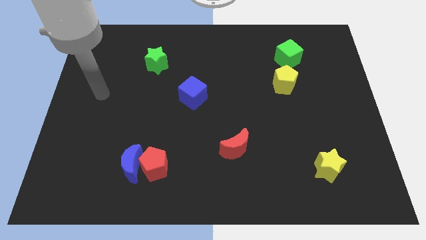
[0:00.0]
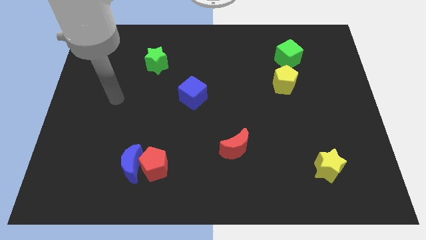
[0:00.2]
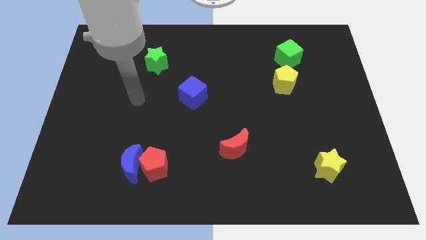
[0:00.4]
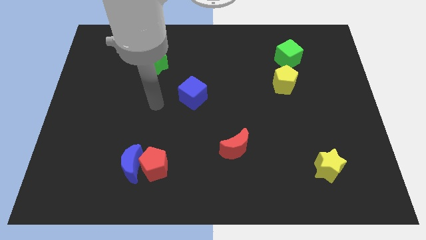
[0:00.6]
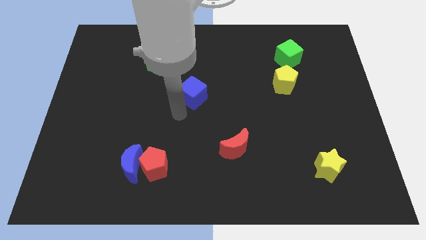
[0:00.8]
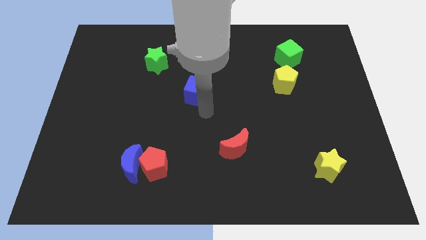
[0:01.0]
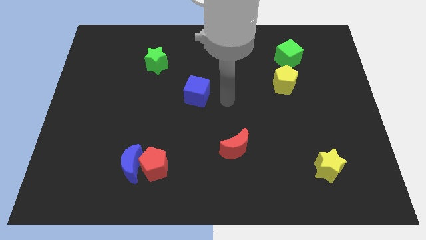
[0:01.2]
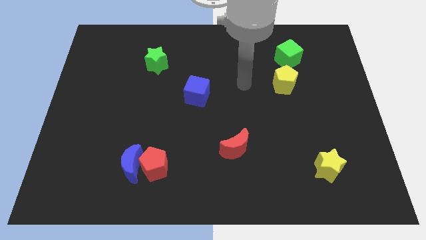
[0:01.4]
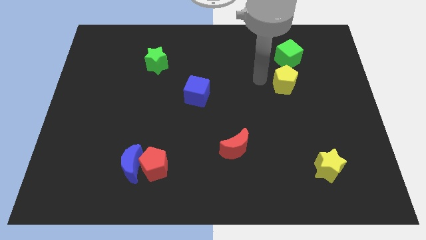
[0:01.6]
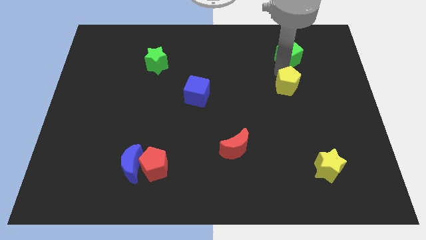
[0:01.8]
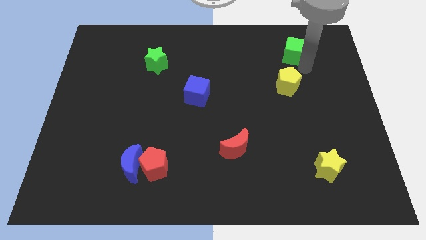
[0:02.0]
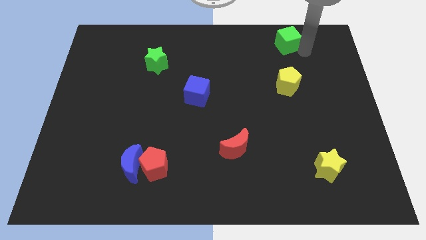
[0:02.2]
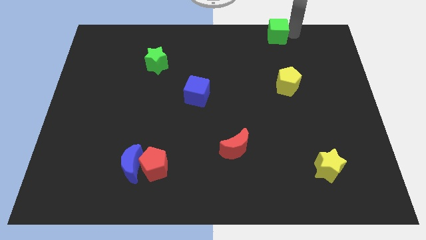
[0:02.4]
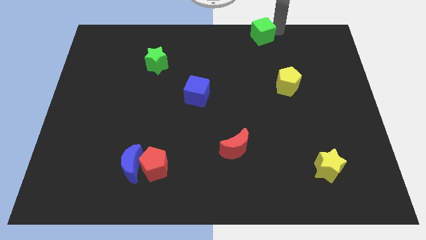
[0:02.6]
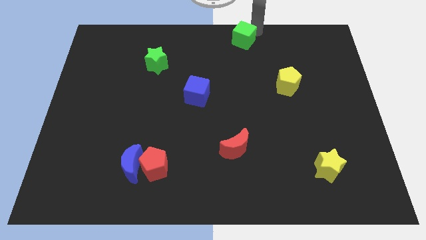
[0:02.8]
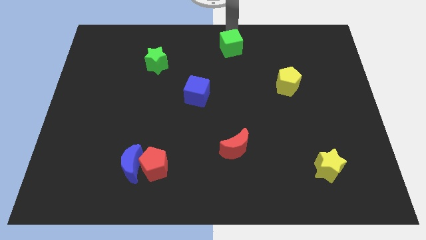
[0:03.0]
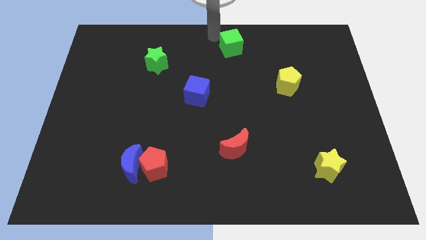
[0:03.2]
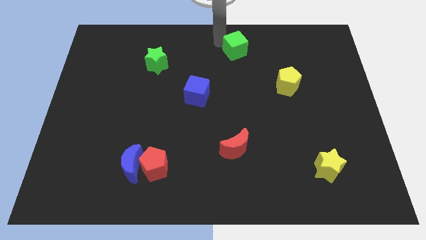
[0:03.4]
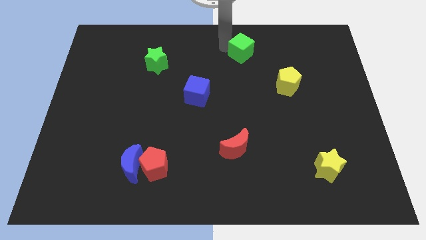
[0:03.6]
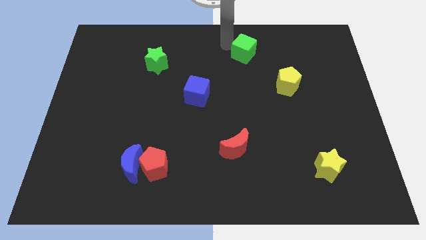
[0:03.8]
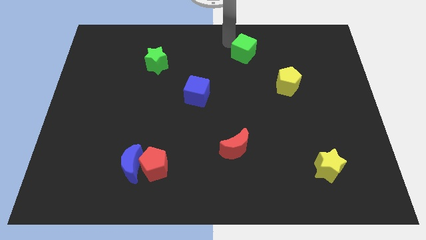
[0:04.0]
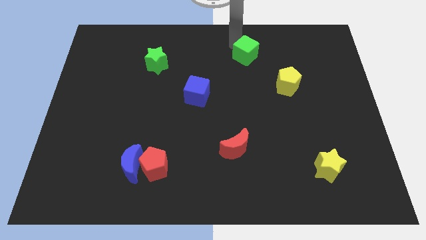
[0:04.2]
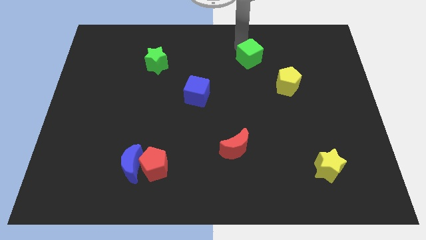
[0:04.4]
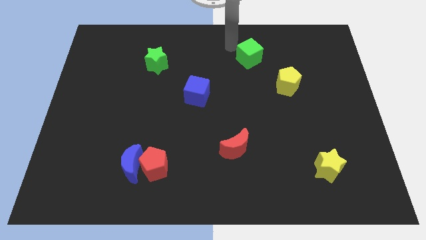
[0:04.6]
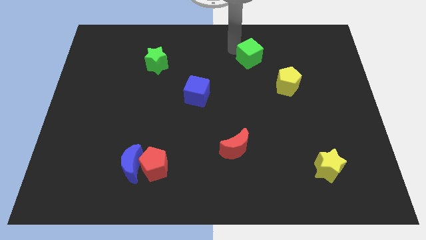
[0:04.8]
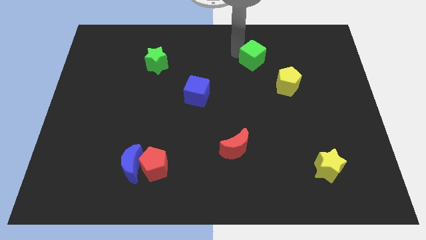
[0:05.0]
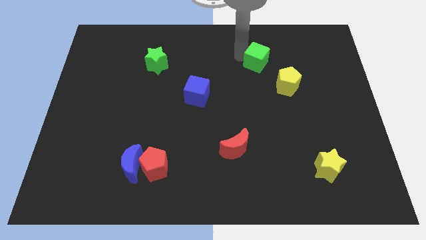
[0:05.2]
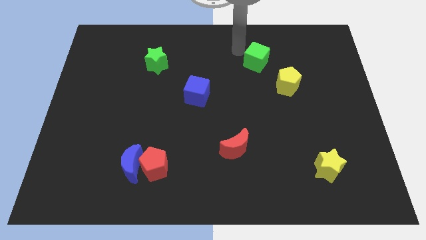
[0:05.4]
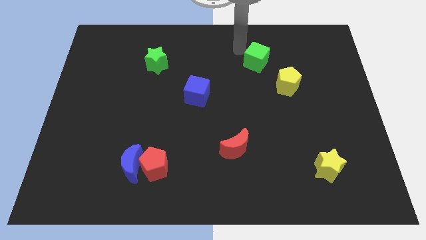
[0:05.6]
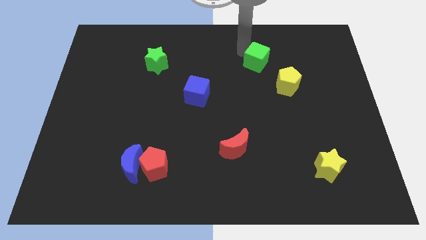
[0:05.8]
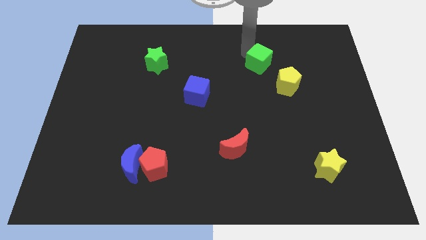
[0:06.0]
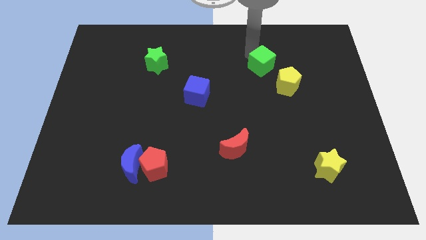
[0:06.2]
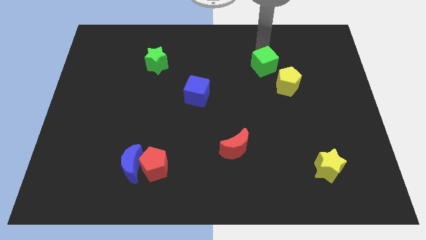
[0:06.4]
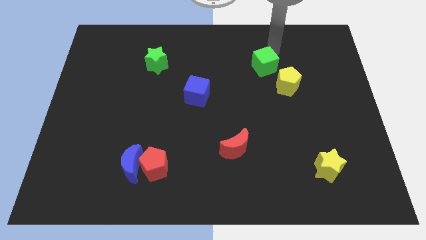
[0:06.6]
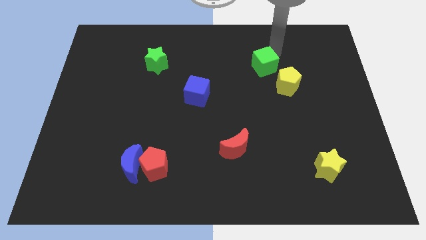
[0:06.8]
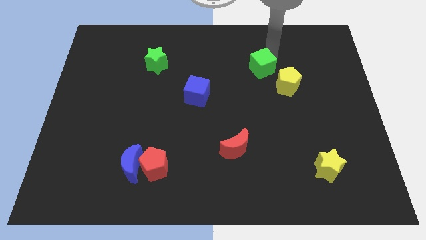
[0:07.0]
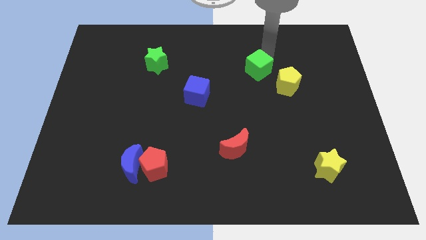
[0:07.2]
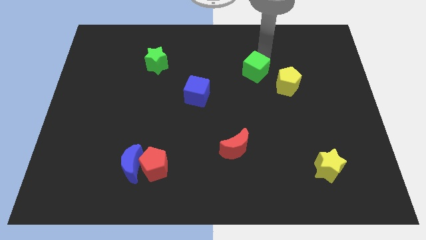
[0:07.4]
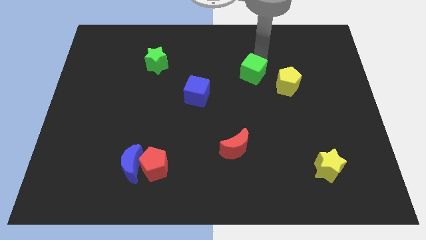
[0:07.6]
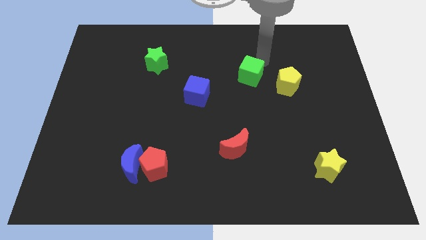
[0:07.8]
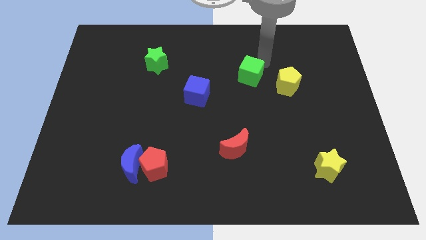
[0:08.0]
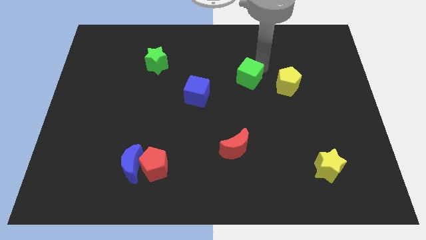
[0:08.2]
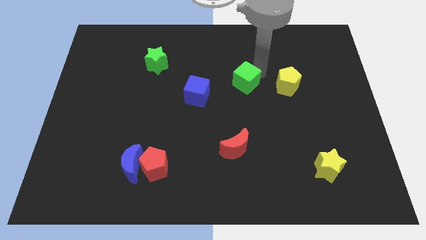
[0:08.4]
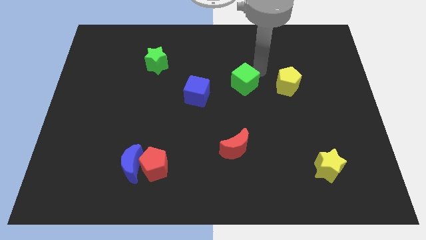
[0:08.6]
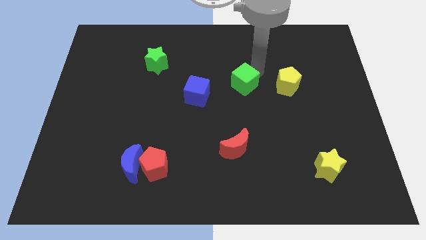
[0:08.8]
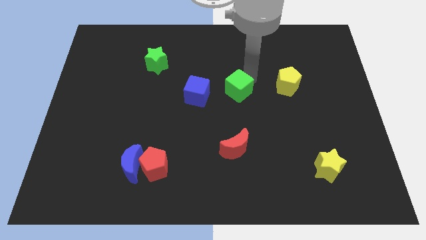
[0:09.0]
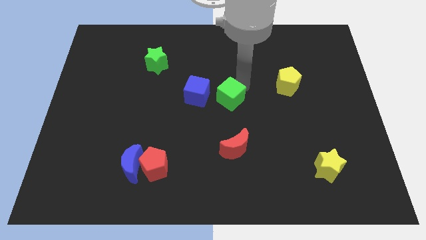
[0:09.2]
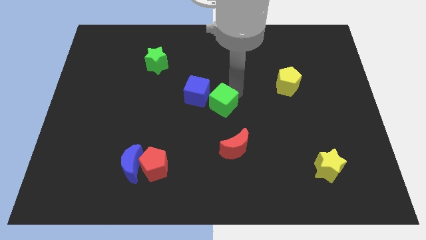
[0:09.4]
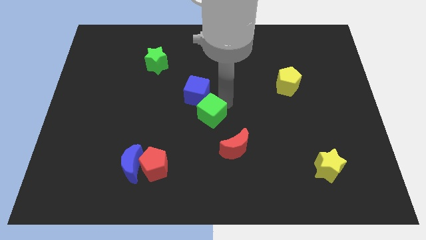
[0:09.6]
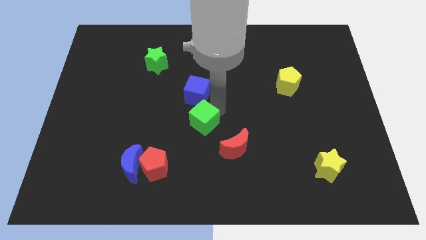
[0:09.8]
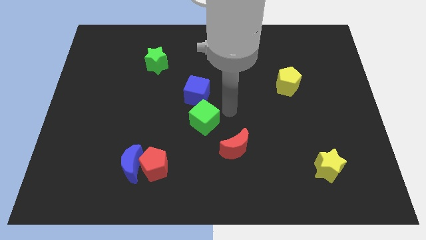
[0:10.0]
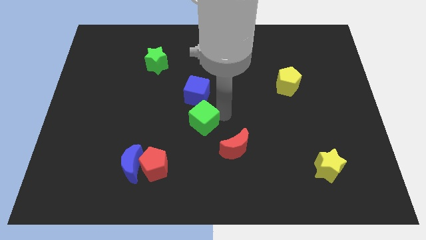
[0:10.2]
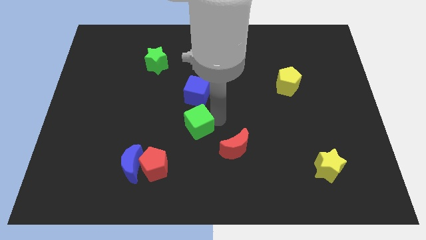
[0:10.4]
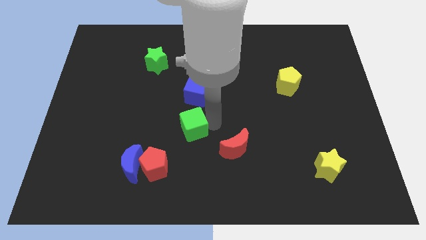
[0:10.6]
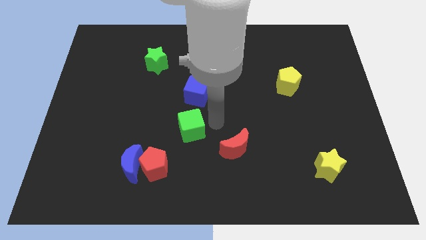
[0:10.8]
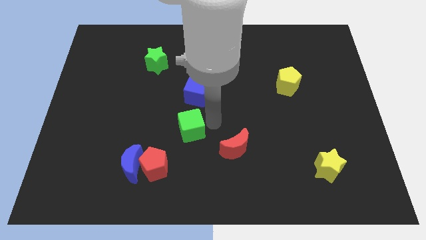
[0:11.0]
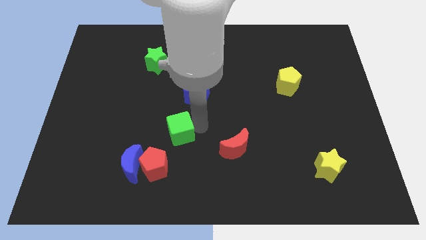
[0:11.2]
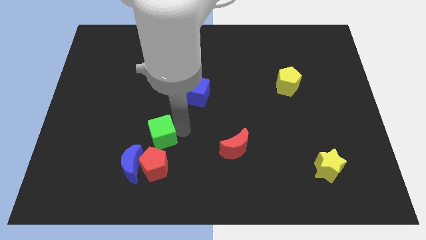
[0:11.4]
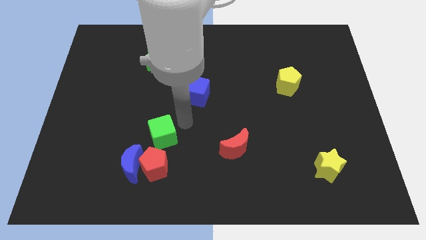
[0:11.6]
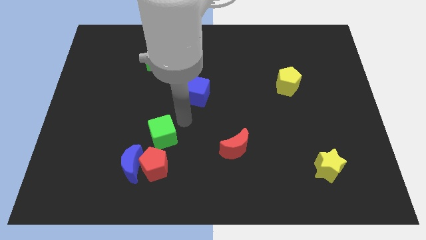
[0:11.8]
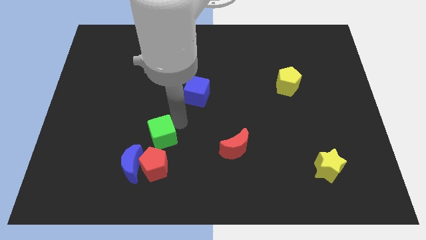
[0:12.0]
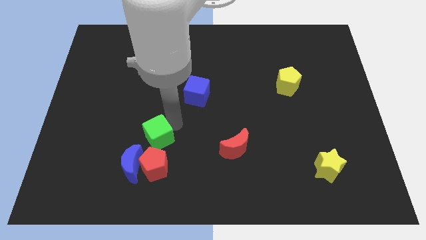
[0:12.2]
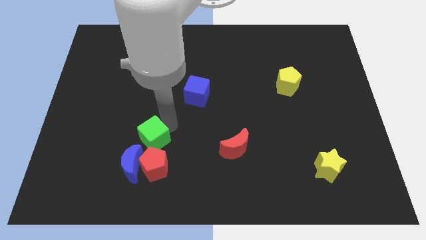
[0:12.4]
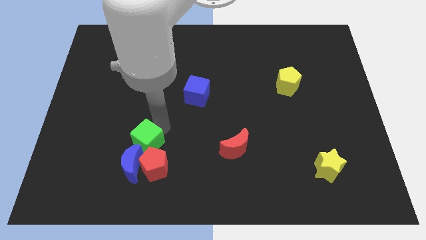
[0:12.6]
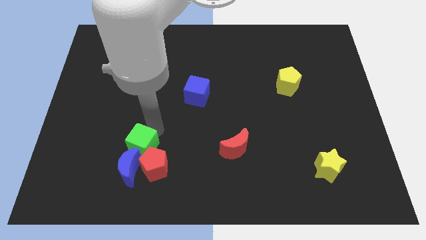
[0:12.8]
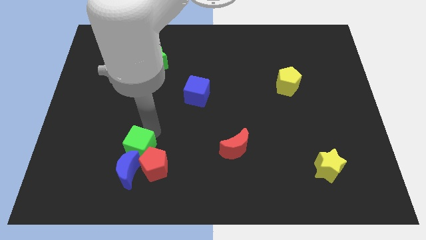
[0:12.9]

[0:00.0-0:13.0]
move the green cube next to the blue moon
